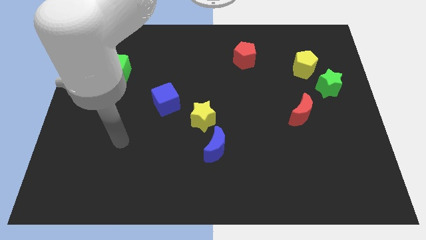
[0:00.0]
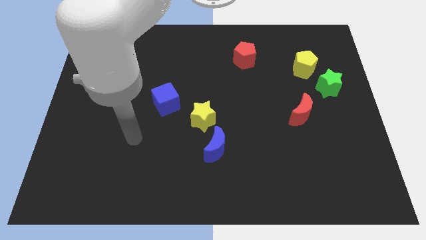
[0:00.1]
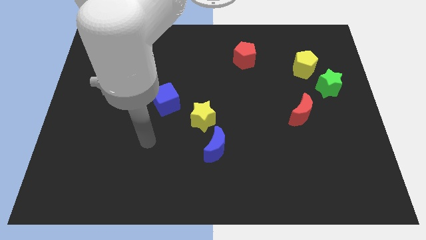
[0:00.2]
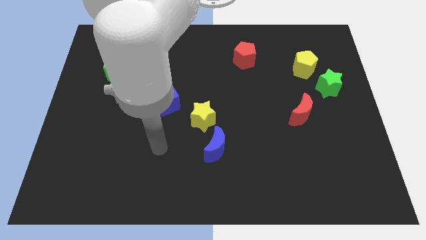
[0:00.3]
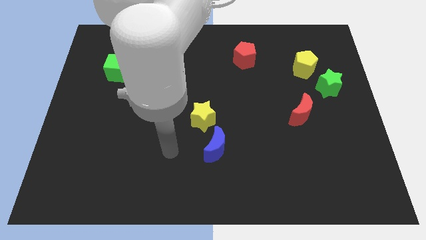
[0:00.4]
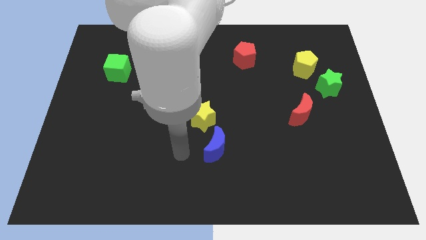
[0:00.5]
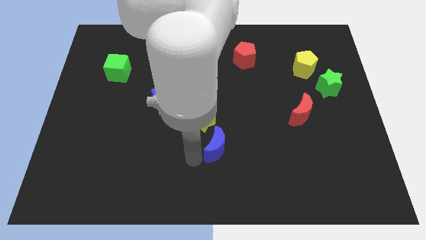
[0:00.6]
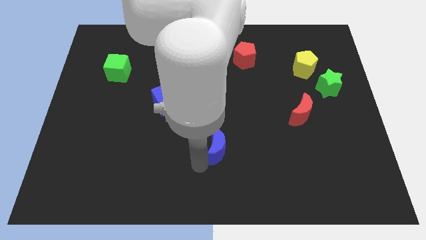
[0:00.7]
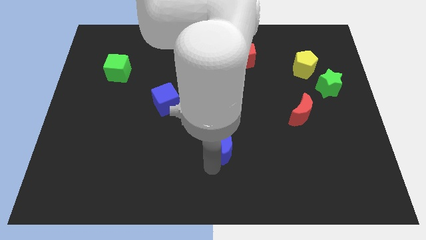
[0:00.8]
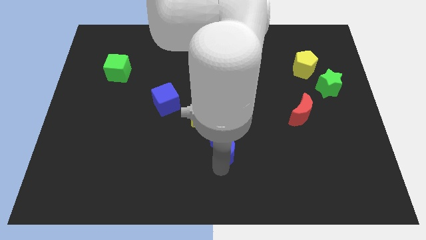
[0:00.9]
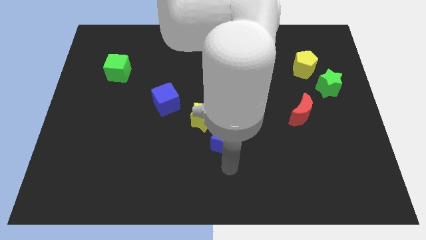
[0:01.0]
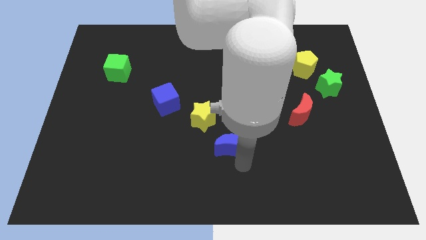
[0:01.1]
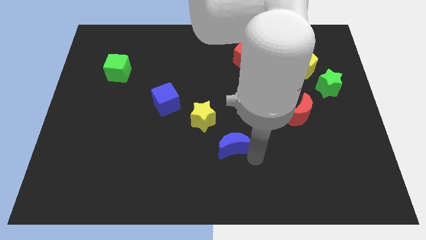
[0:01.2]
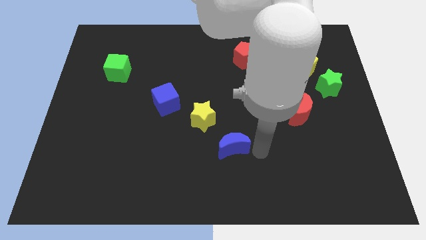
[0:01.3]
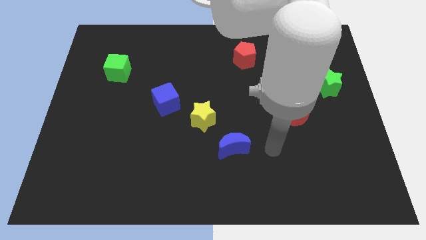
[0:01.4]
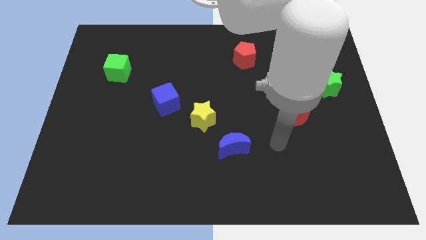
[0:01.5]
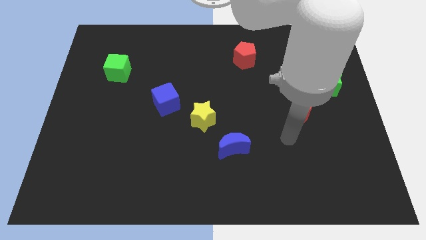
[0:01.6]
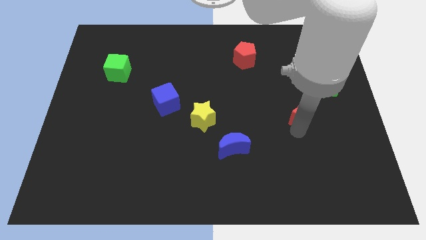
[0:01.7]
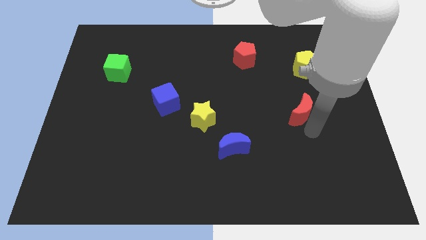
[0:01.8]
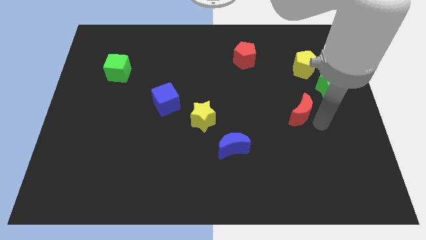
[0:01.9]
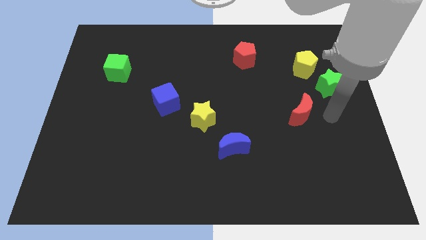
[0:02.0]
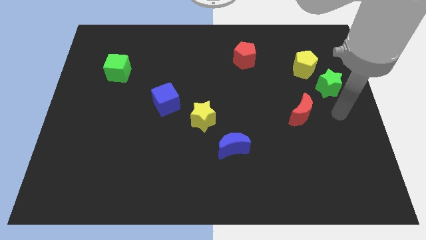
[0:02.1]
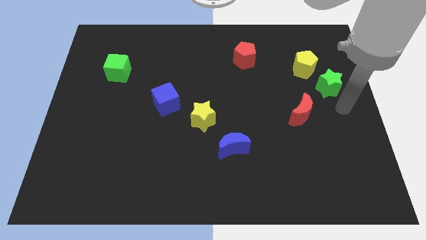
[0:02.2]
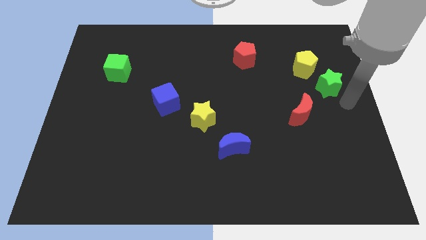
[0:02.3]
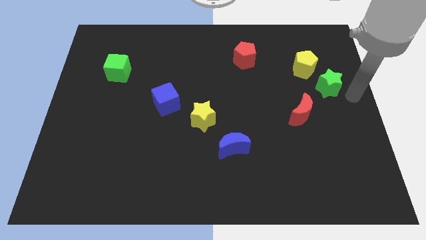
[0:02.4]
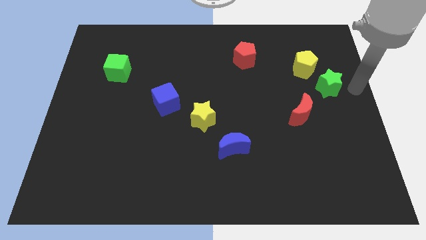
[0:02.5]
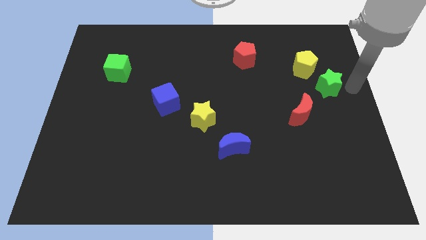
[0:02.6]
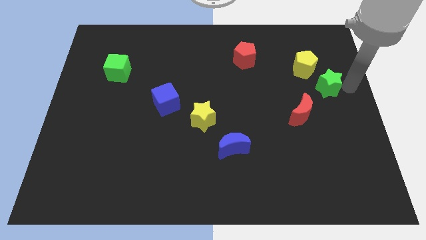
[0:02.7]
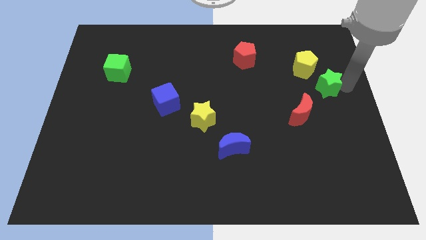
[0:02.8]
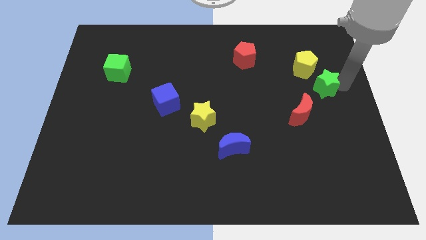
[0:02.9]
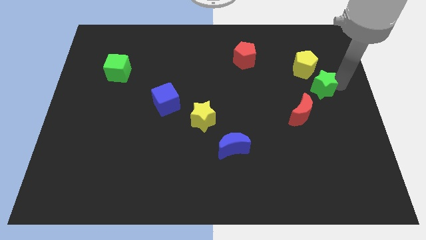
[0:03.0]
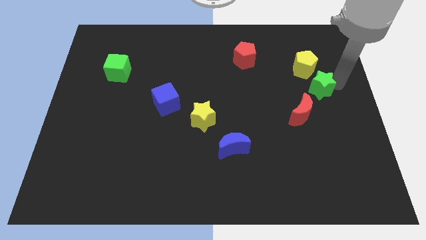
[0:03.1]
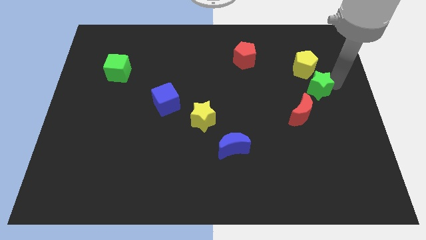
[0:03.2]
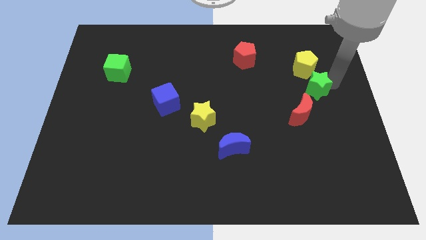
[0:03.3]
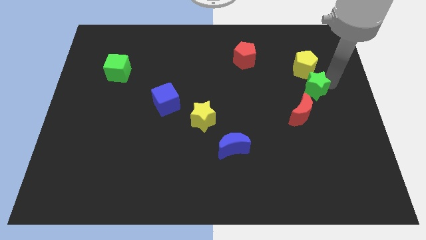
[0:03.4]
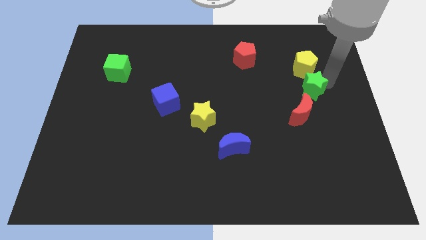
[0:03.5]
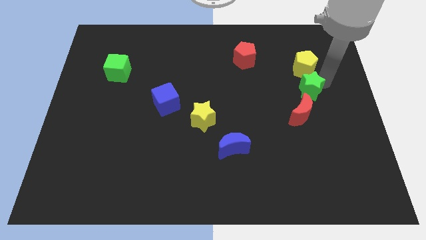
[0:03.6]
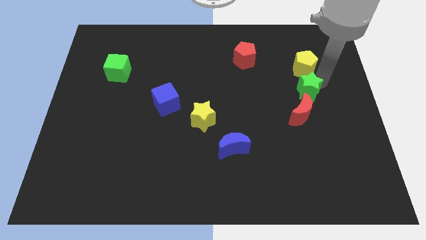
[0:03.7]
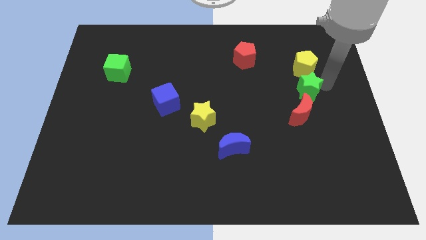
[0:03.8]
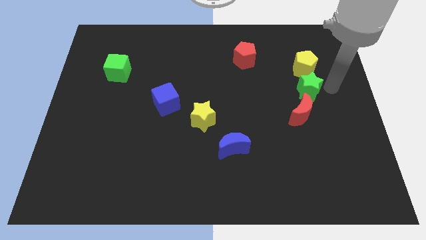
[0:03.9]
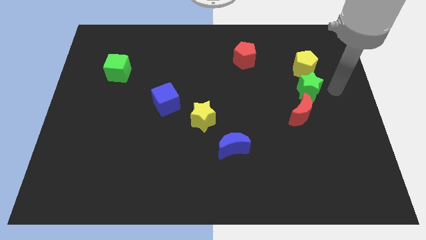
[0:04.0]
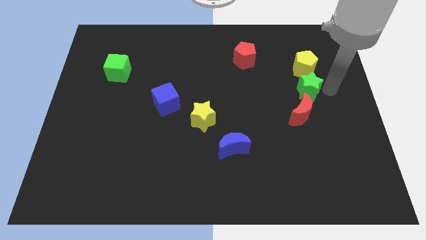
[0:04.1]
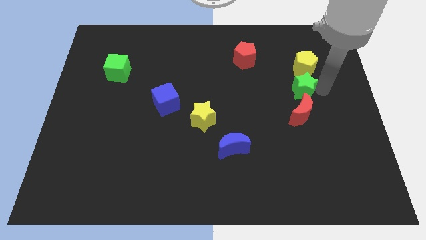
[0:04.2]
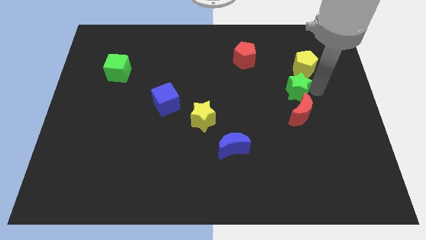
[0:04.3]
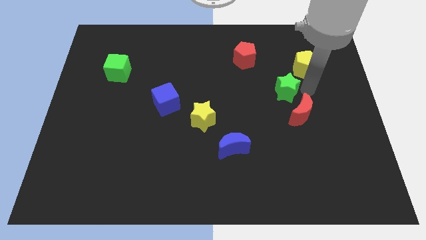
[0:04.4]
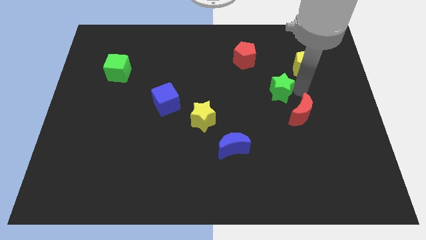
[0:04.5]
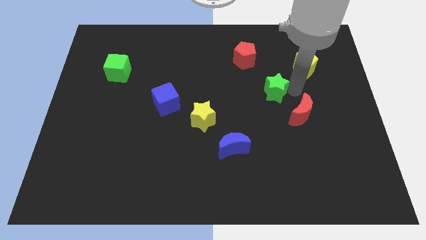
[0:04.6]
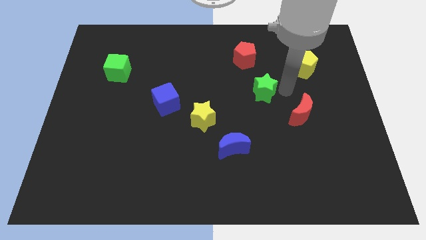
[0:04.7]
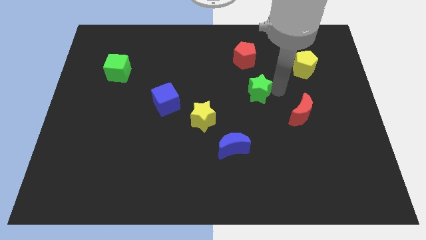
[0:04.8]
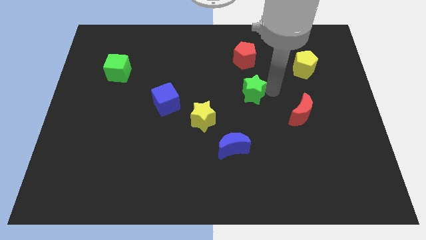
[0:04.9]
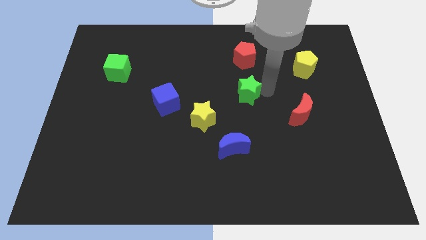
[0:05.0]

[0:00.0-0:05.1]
move the green star to the left

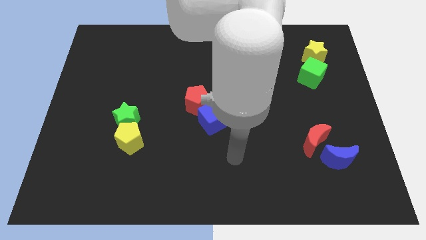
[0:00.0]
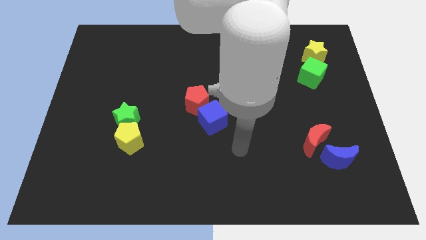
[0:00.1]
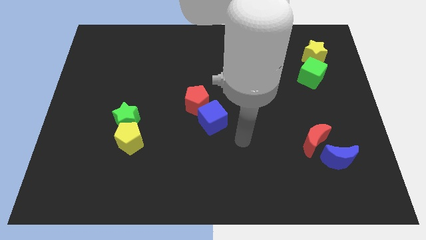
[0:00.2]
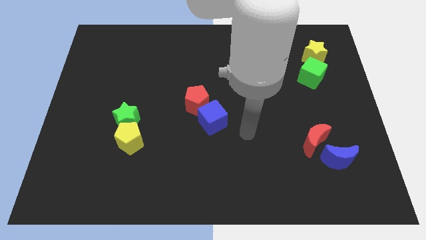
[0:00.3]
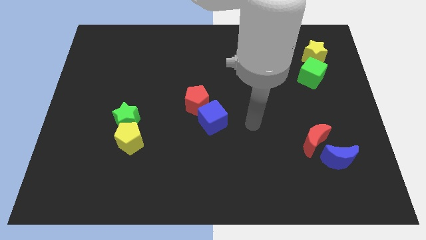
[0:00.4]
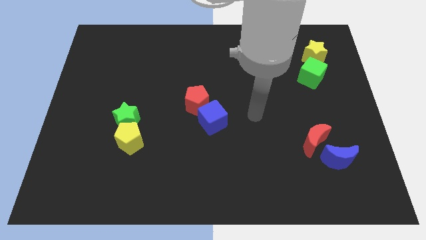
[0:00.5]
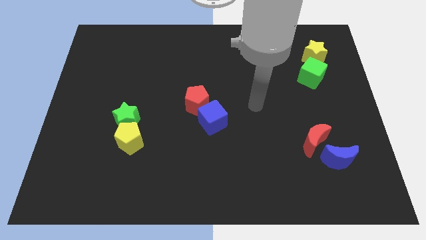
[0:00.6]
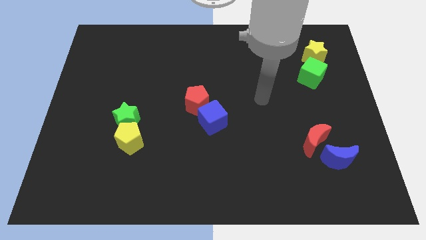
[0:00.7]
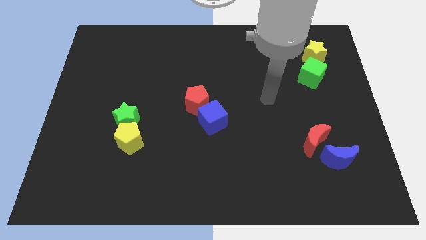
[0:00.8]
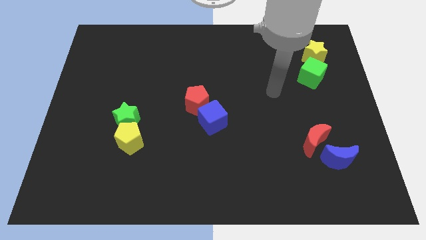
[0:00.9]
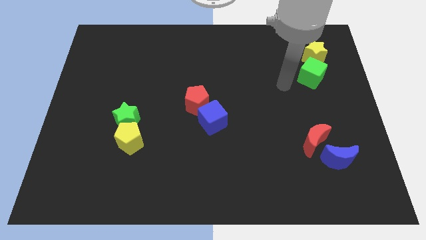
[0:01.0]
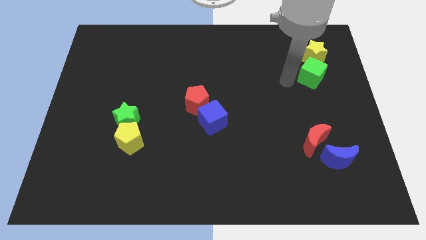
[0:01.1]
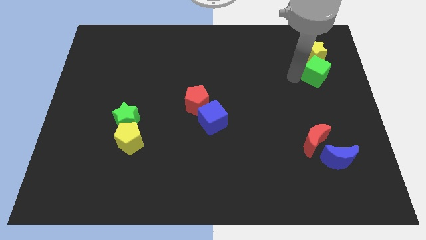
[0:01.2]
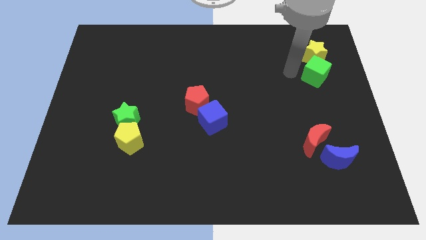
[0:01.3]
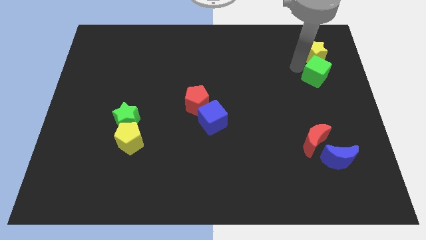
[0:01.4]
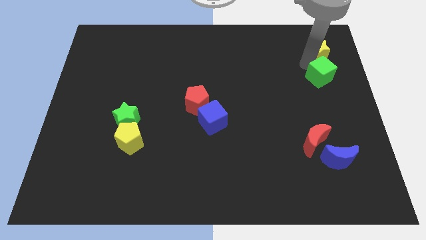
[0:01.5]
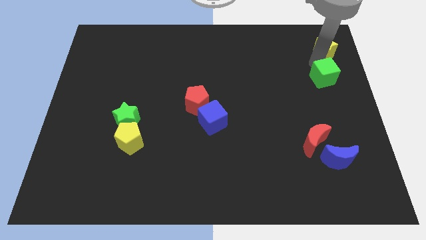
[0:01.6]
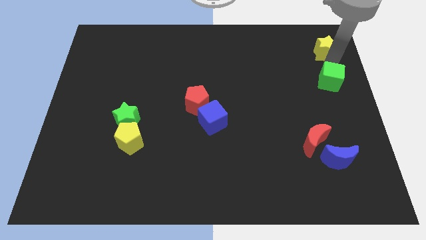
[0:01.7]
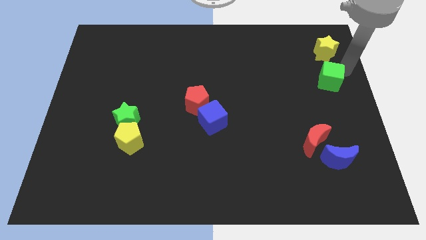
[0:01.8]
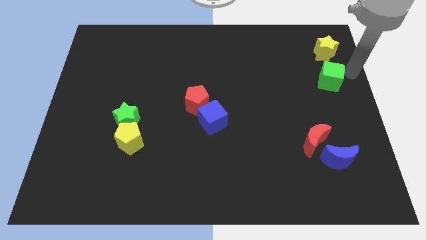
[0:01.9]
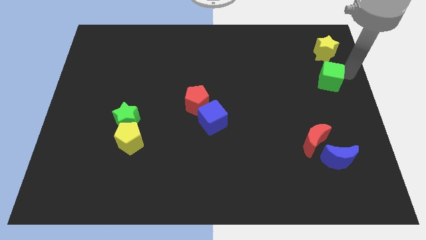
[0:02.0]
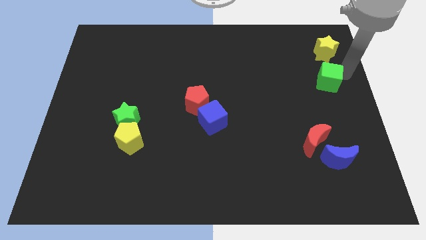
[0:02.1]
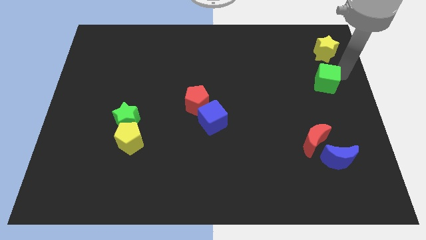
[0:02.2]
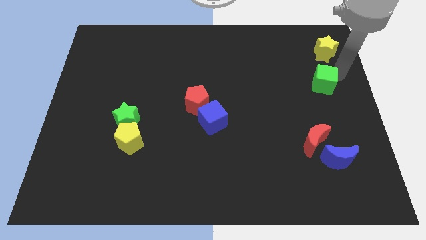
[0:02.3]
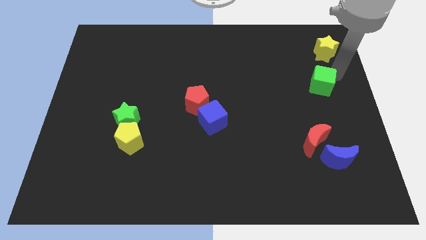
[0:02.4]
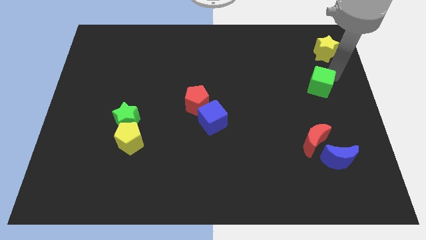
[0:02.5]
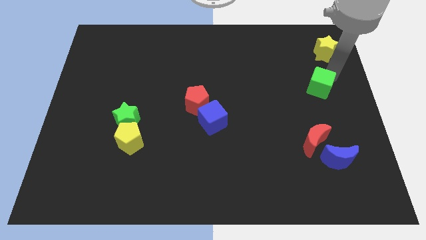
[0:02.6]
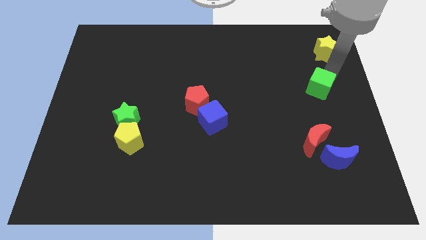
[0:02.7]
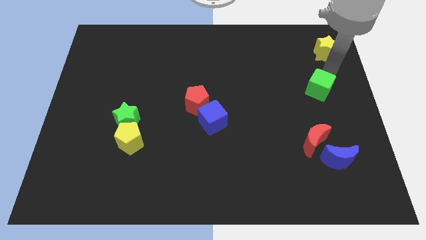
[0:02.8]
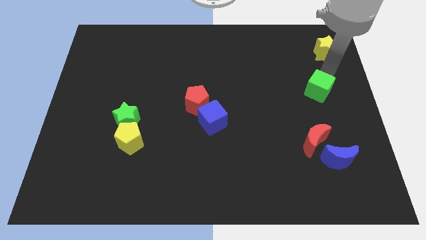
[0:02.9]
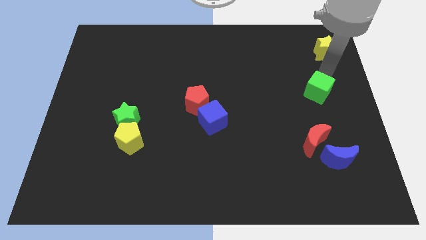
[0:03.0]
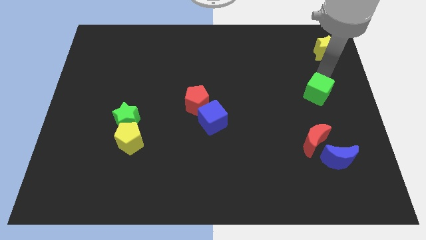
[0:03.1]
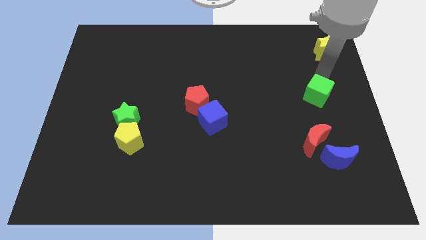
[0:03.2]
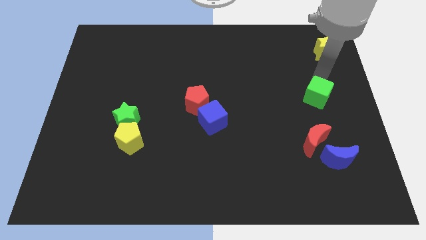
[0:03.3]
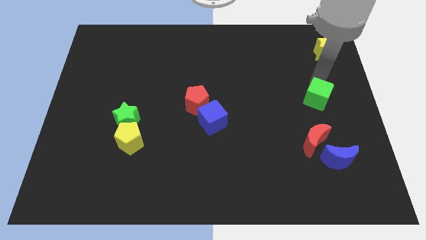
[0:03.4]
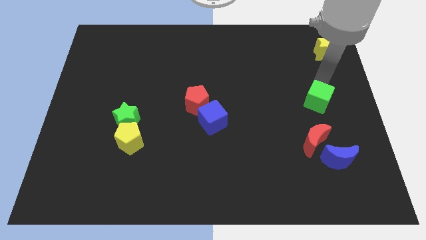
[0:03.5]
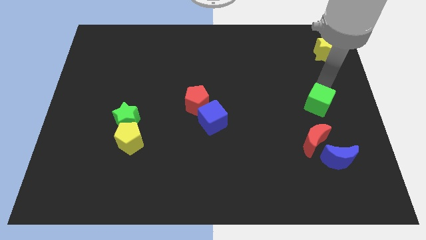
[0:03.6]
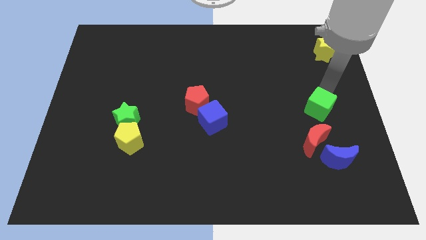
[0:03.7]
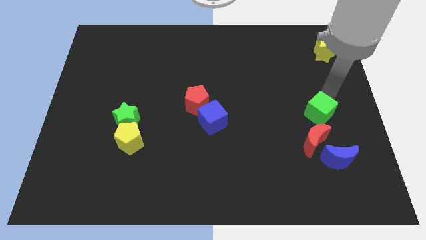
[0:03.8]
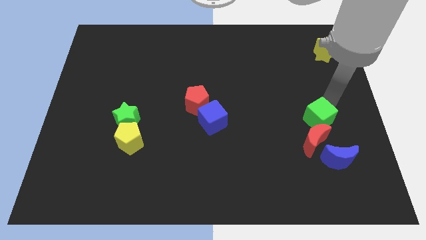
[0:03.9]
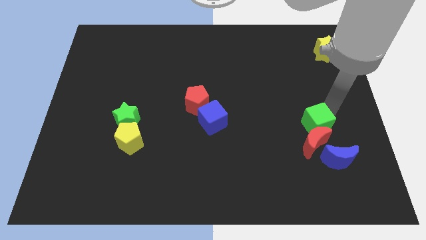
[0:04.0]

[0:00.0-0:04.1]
slightly slide the green cube down and then to the left
